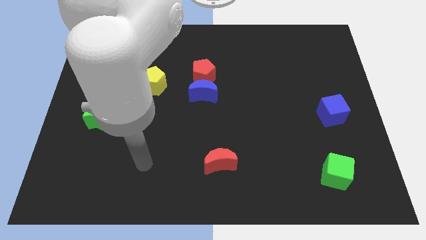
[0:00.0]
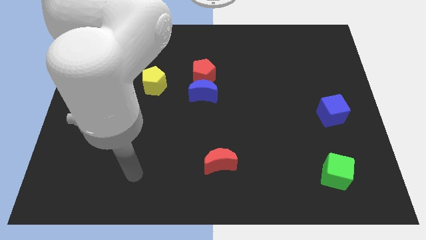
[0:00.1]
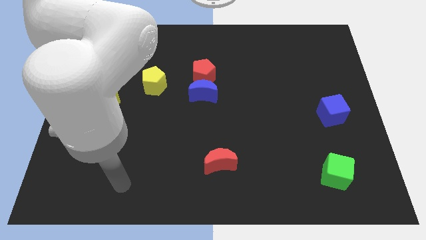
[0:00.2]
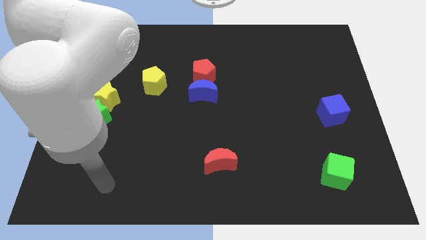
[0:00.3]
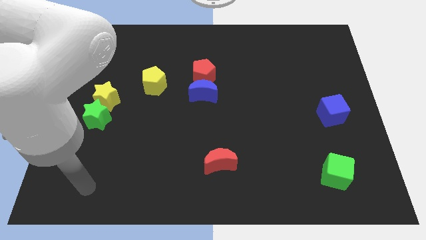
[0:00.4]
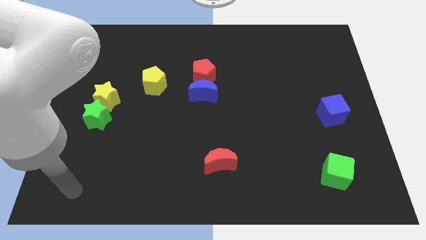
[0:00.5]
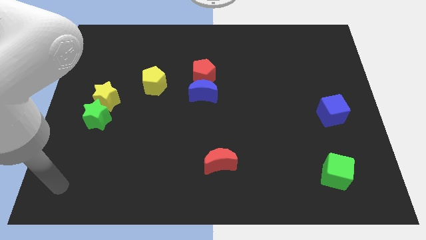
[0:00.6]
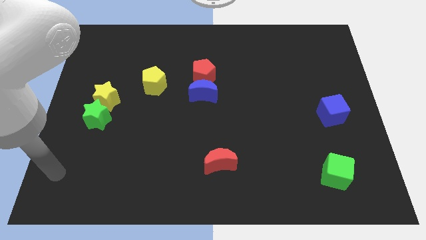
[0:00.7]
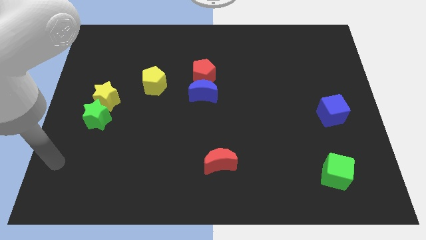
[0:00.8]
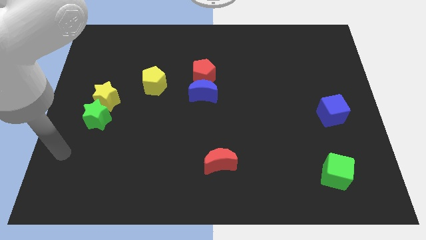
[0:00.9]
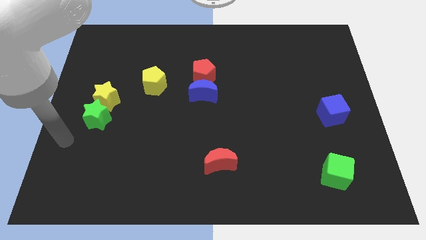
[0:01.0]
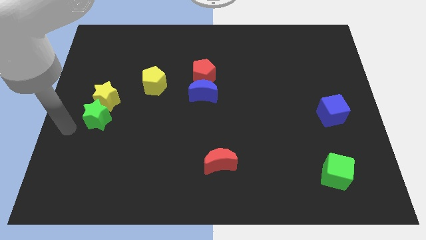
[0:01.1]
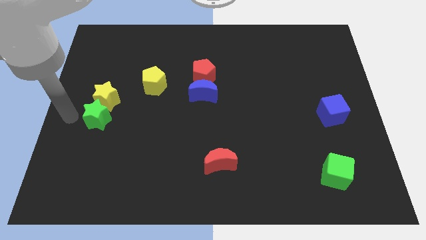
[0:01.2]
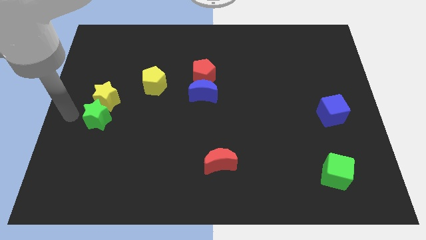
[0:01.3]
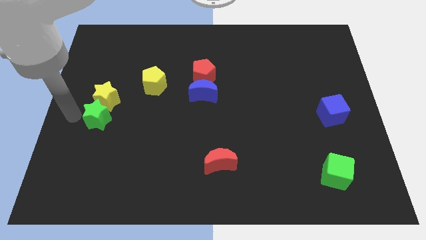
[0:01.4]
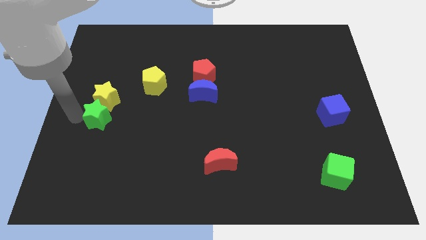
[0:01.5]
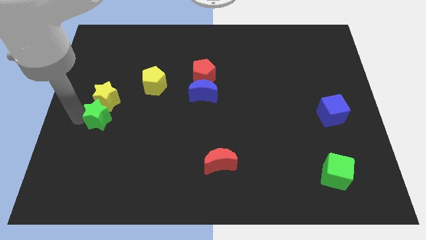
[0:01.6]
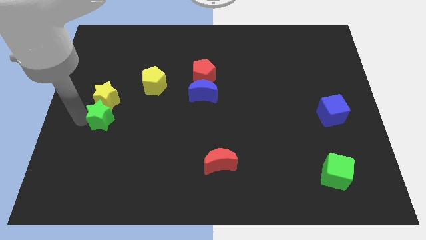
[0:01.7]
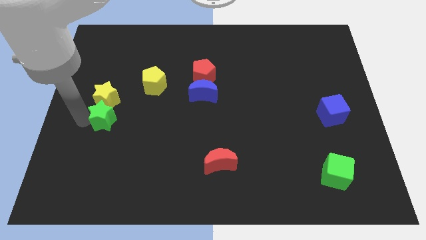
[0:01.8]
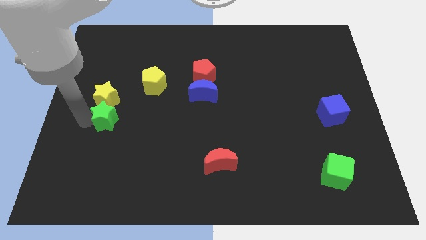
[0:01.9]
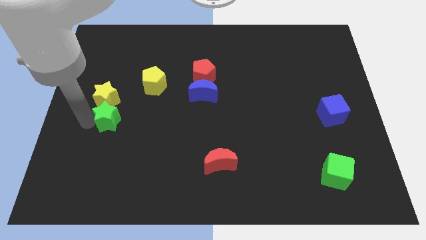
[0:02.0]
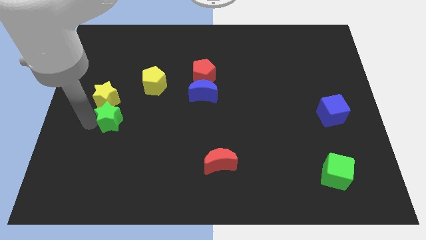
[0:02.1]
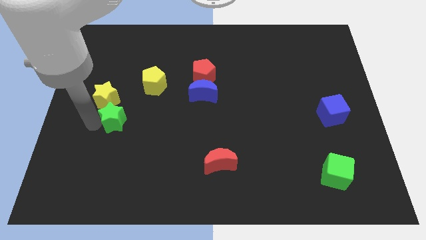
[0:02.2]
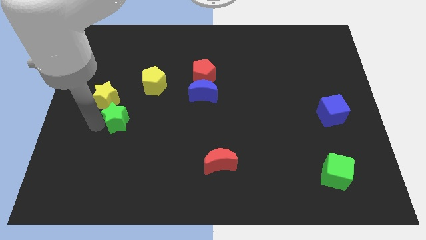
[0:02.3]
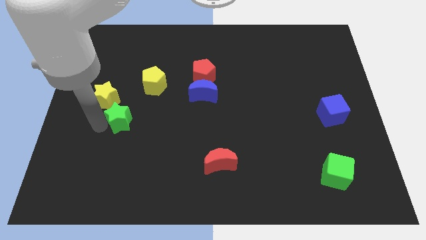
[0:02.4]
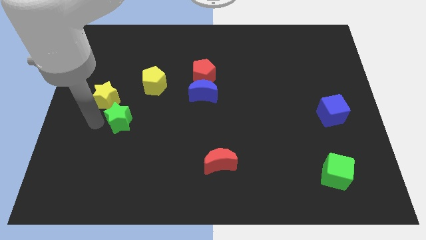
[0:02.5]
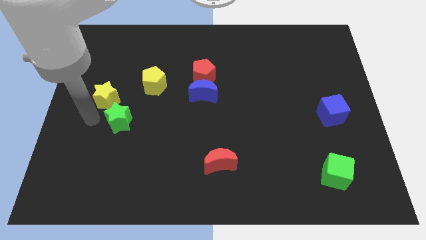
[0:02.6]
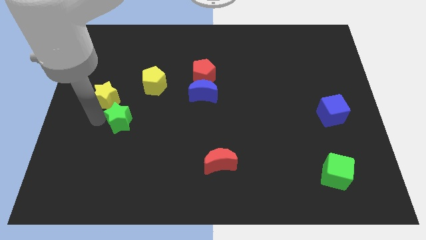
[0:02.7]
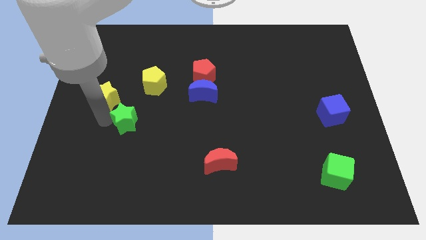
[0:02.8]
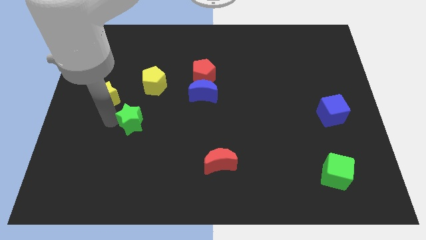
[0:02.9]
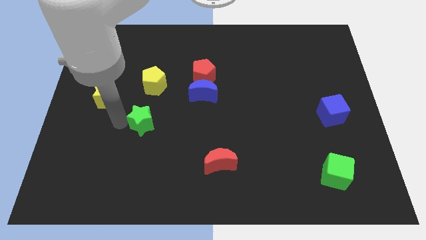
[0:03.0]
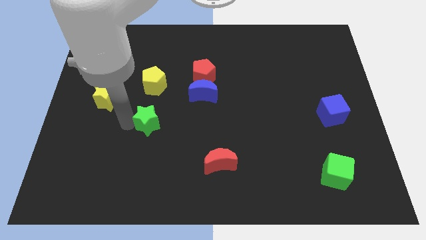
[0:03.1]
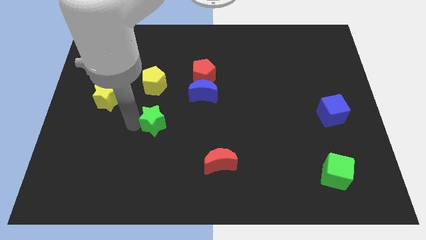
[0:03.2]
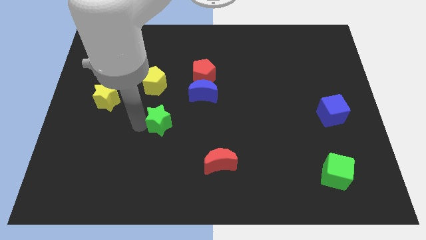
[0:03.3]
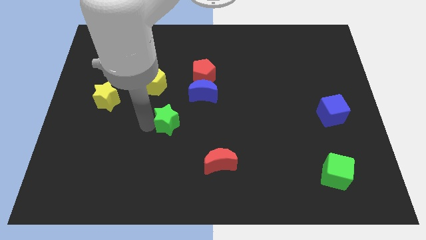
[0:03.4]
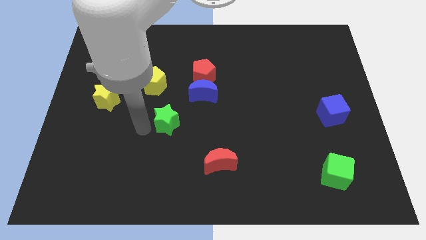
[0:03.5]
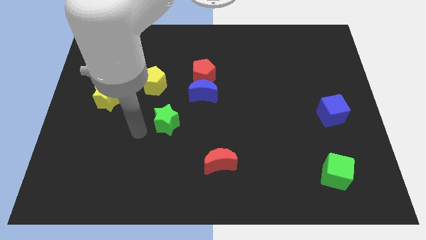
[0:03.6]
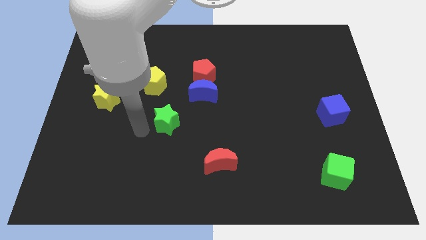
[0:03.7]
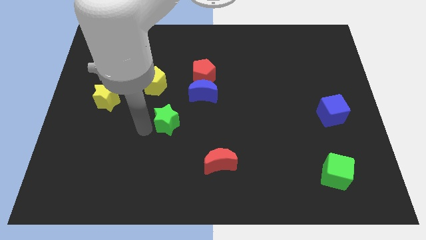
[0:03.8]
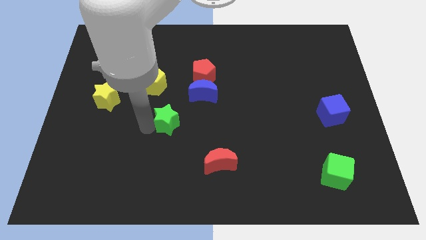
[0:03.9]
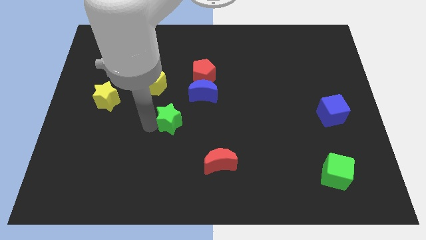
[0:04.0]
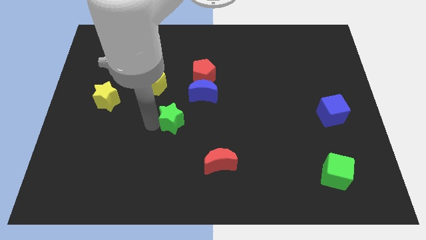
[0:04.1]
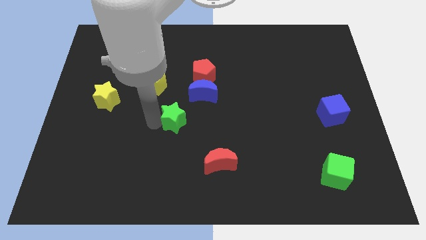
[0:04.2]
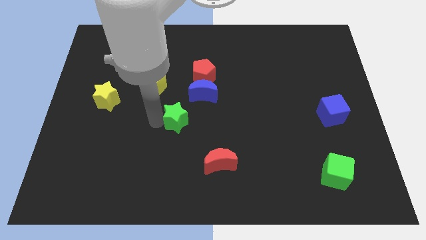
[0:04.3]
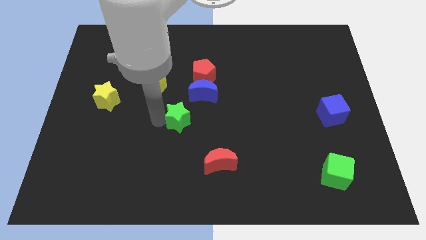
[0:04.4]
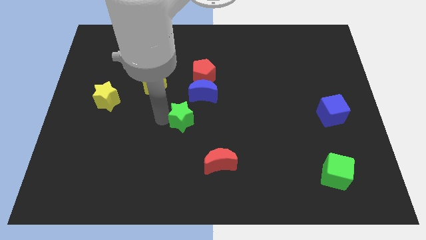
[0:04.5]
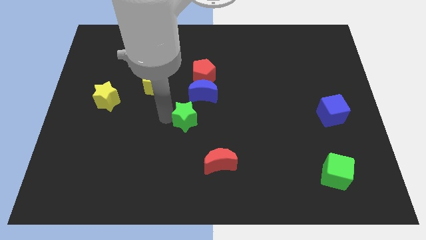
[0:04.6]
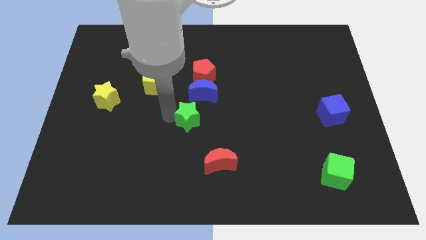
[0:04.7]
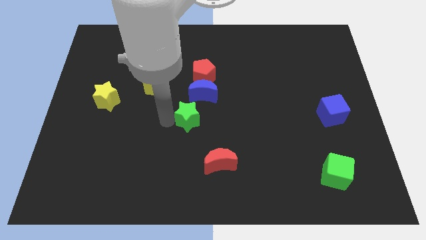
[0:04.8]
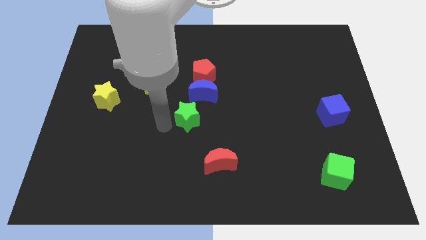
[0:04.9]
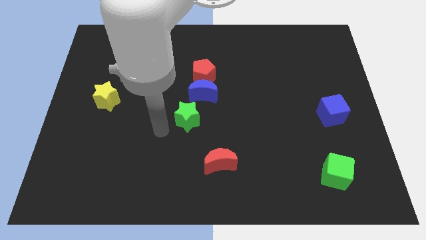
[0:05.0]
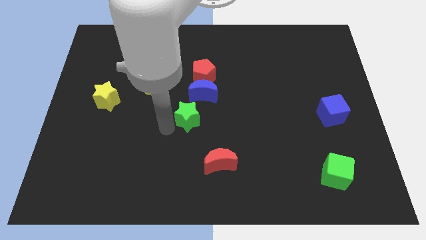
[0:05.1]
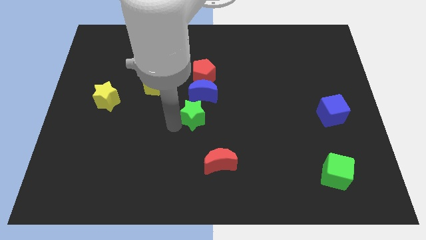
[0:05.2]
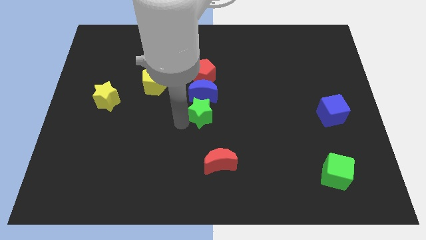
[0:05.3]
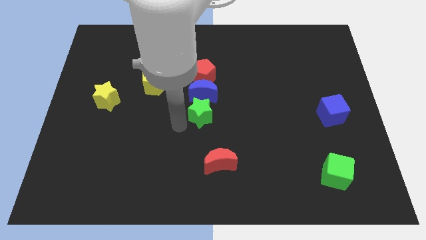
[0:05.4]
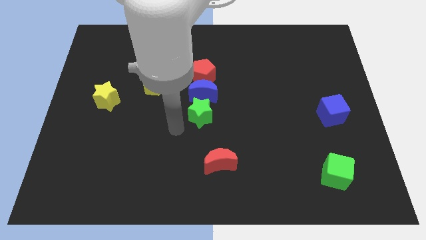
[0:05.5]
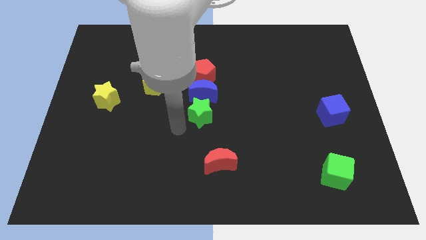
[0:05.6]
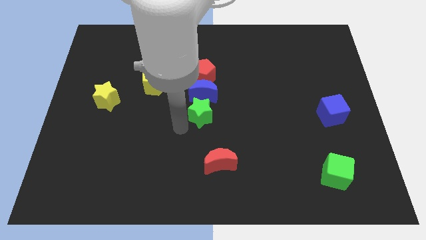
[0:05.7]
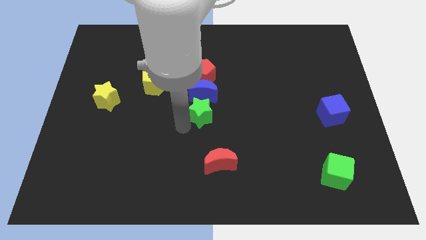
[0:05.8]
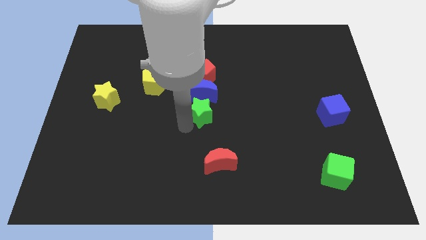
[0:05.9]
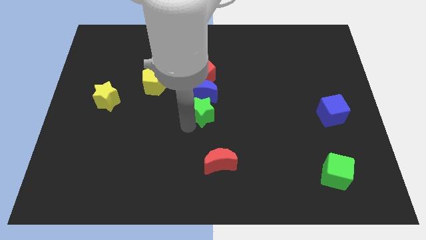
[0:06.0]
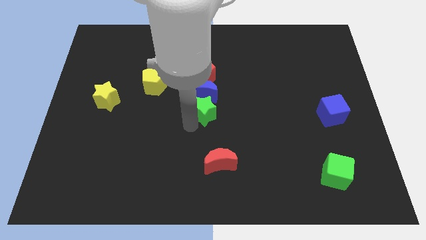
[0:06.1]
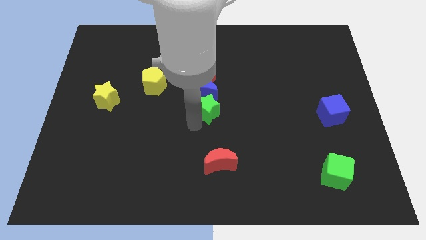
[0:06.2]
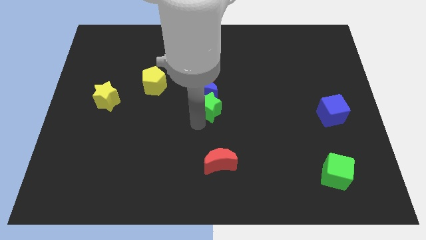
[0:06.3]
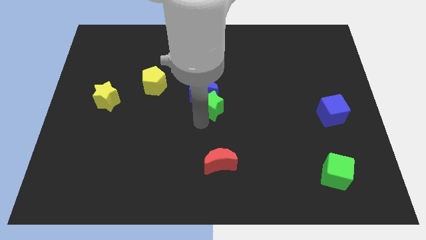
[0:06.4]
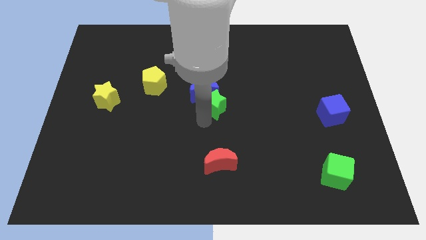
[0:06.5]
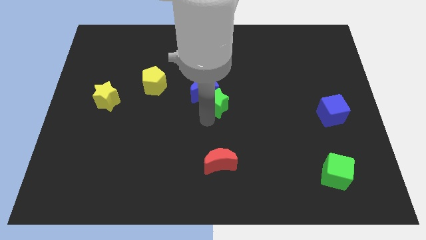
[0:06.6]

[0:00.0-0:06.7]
push the green star diagonally down and to the right of the red pentagon

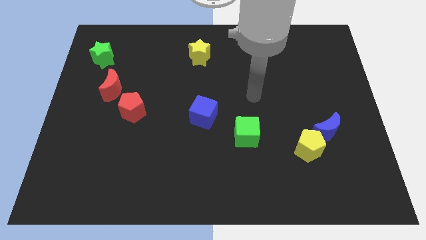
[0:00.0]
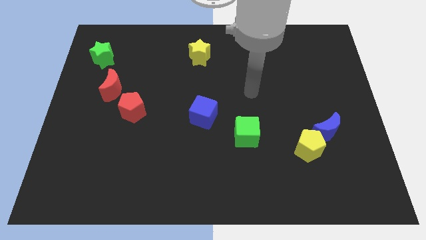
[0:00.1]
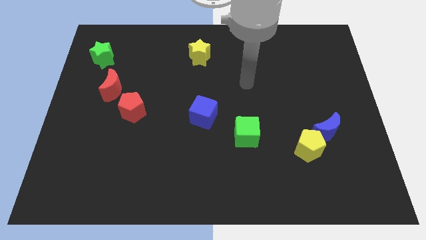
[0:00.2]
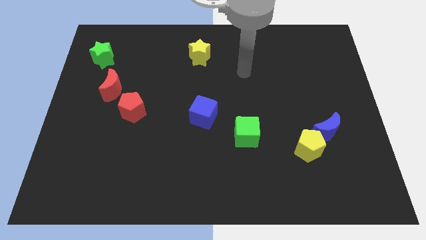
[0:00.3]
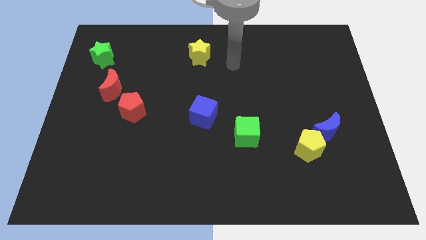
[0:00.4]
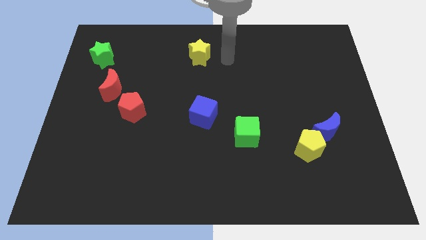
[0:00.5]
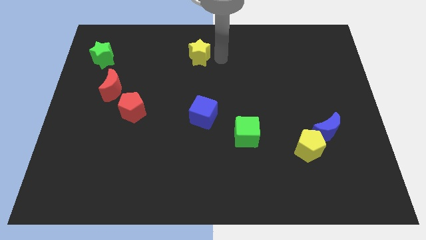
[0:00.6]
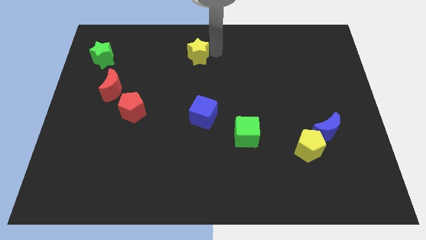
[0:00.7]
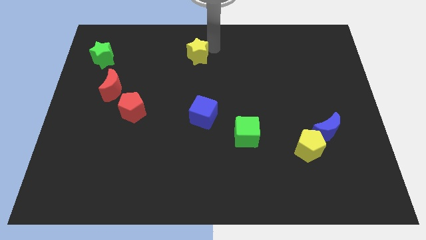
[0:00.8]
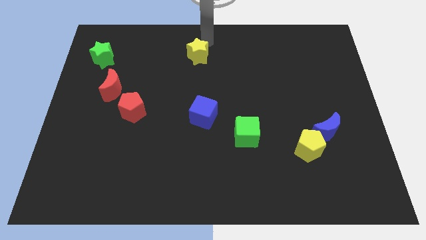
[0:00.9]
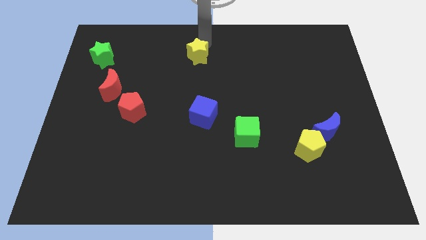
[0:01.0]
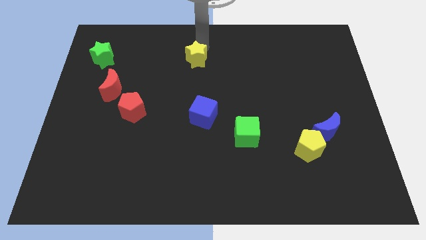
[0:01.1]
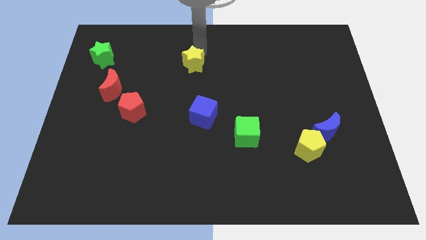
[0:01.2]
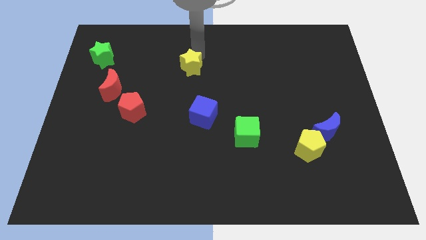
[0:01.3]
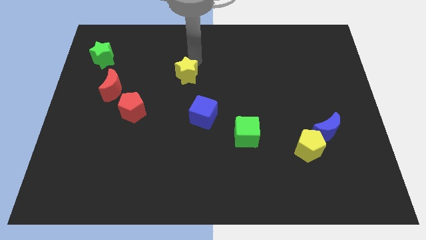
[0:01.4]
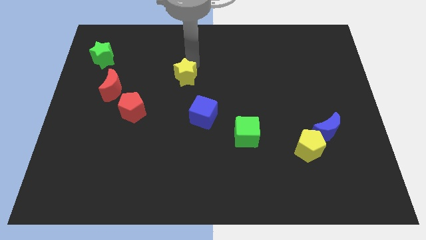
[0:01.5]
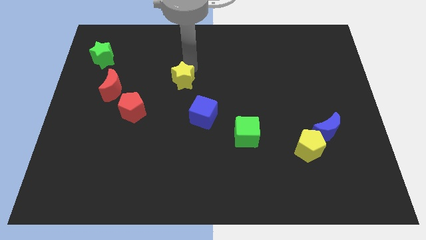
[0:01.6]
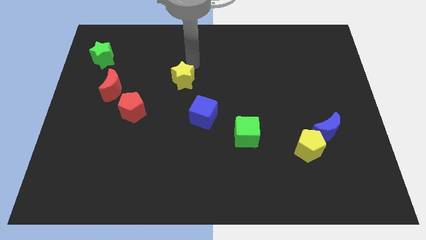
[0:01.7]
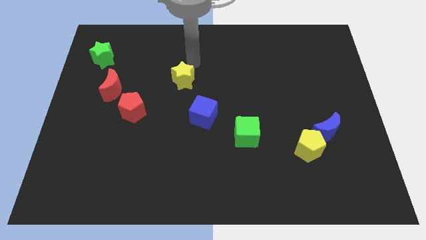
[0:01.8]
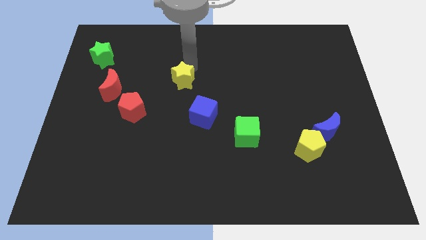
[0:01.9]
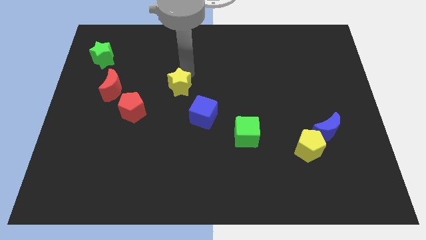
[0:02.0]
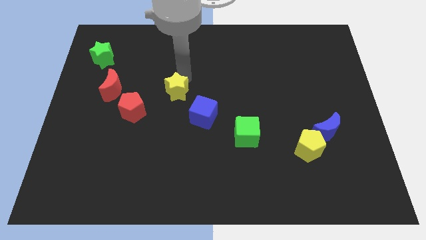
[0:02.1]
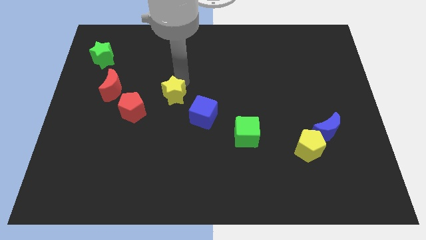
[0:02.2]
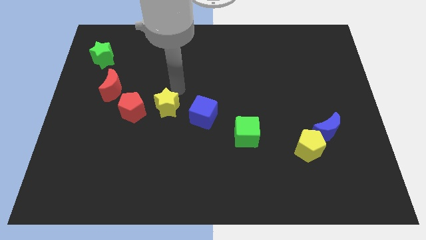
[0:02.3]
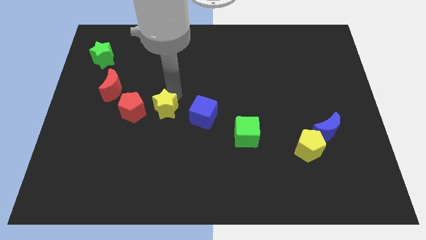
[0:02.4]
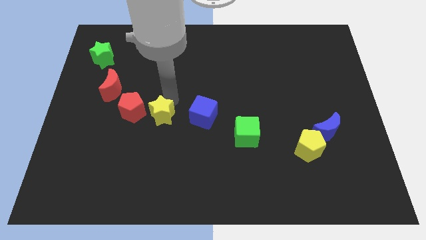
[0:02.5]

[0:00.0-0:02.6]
put the yellow star diagonally down and to the right of the red pentagon
